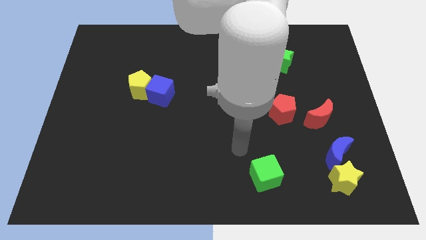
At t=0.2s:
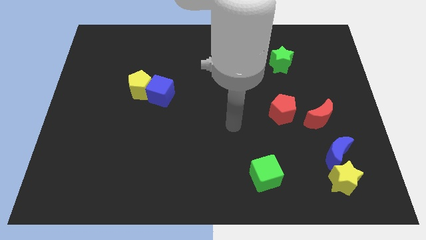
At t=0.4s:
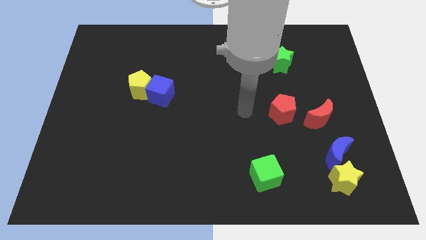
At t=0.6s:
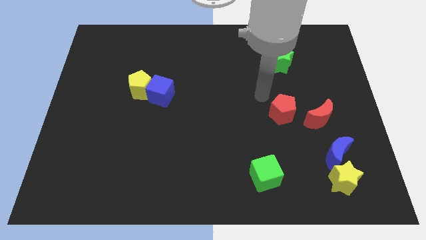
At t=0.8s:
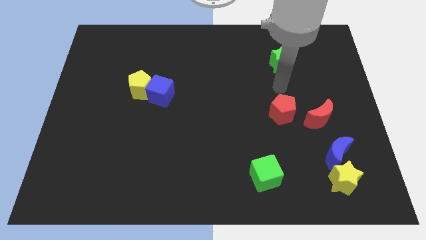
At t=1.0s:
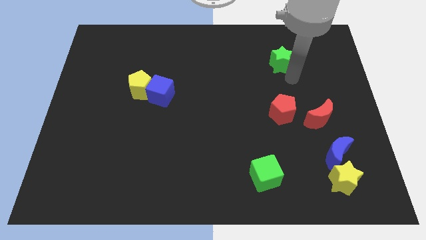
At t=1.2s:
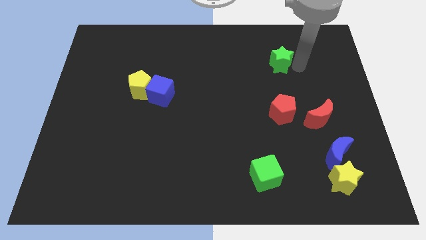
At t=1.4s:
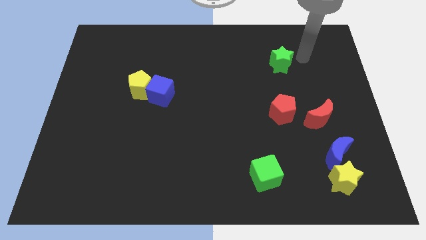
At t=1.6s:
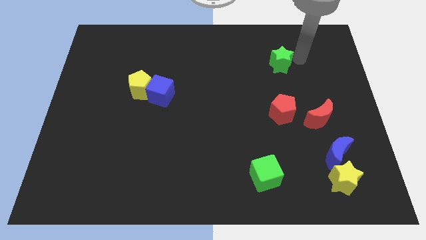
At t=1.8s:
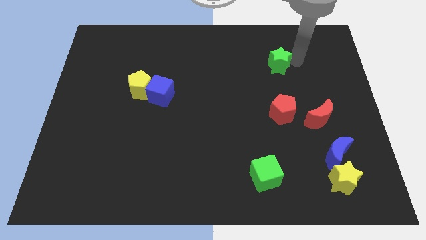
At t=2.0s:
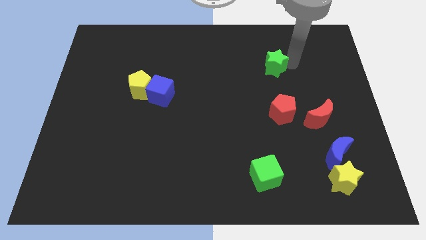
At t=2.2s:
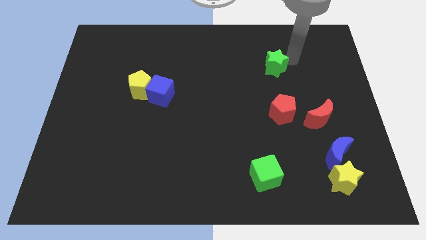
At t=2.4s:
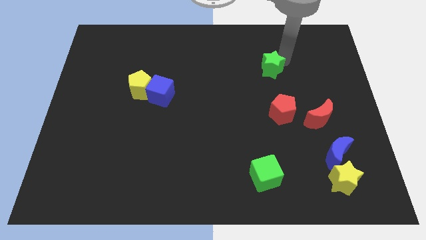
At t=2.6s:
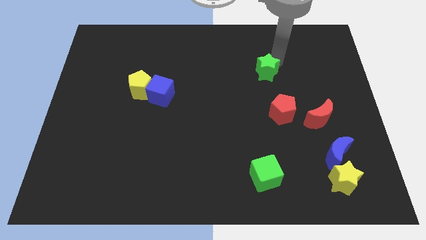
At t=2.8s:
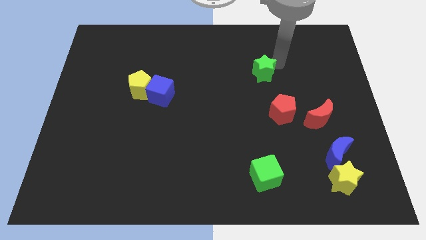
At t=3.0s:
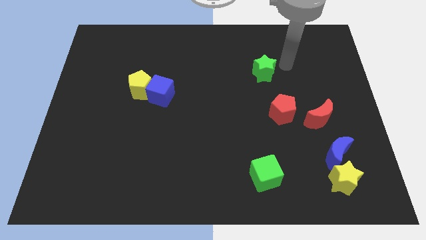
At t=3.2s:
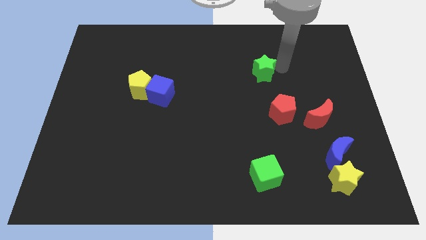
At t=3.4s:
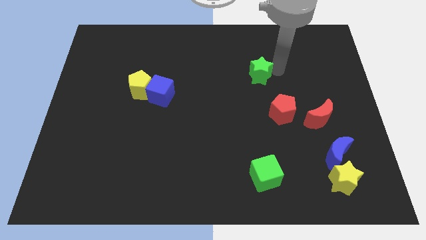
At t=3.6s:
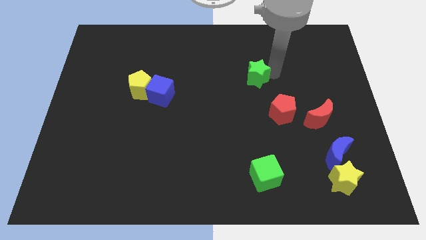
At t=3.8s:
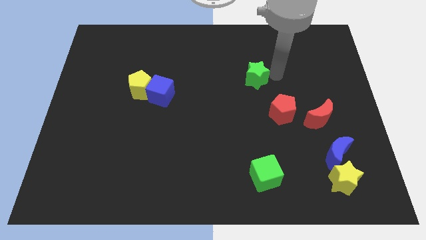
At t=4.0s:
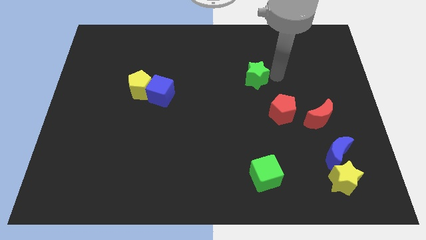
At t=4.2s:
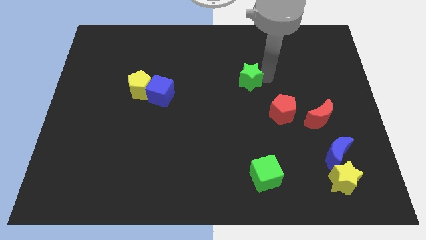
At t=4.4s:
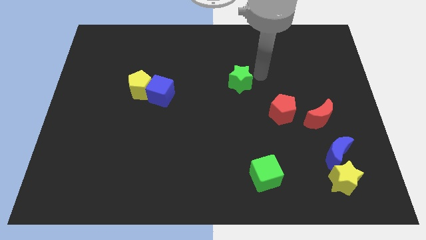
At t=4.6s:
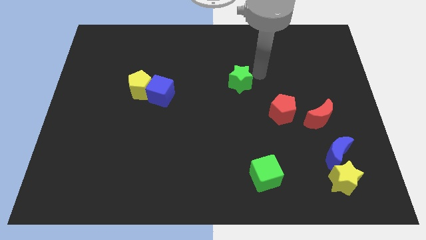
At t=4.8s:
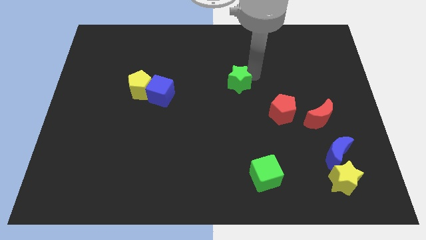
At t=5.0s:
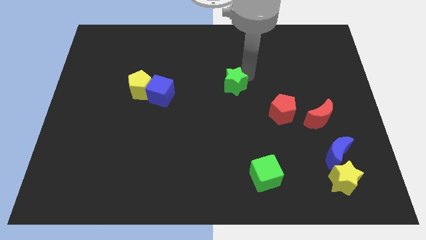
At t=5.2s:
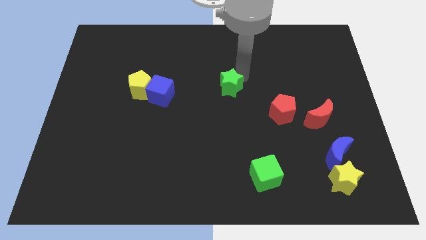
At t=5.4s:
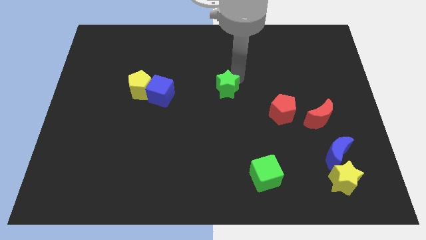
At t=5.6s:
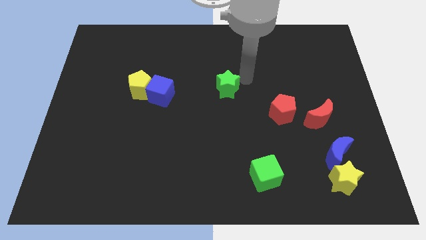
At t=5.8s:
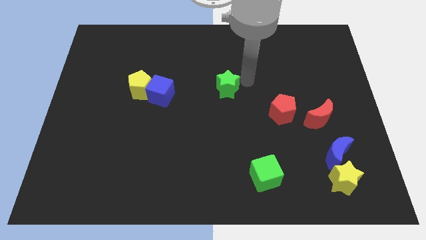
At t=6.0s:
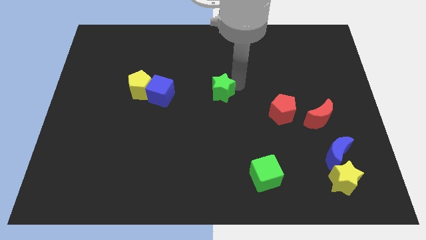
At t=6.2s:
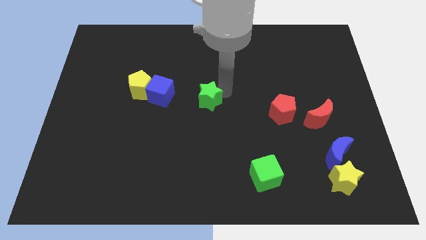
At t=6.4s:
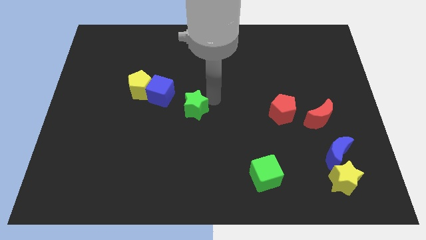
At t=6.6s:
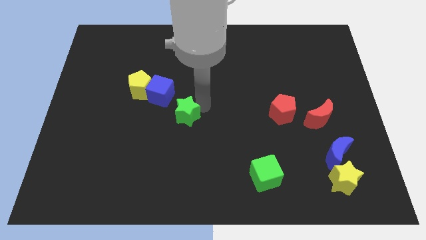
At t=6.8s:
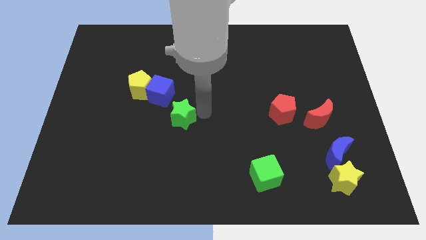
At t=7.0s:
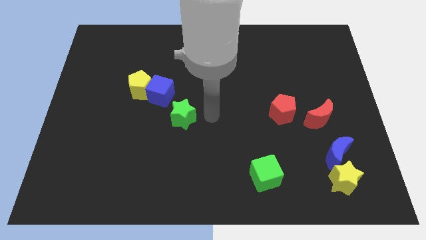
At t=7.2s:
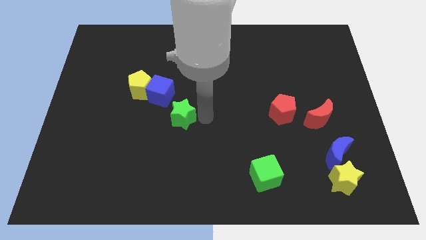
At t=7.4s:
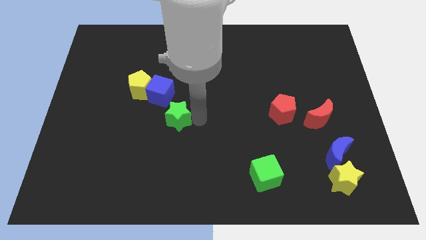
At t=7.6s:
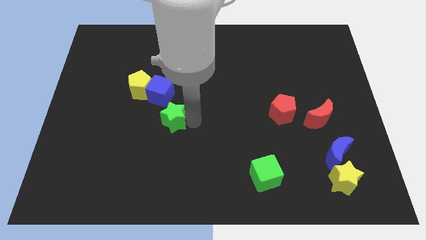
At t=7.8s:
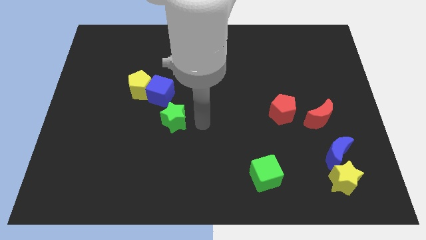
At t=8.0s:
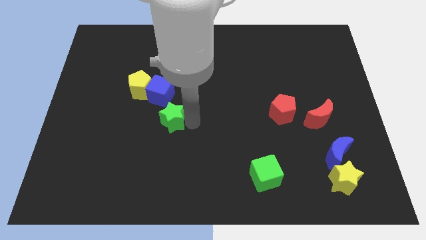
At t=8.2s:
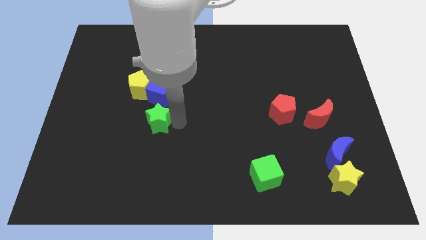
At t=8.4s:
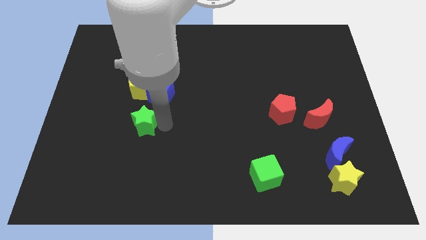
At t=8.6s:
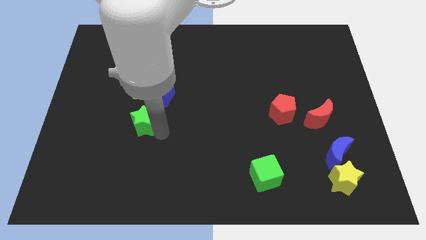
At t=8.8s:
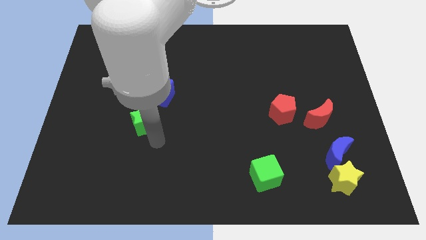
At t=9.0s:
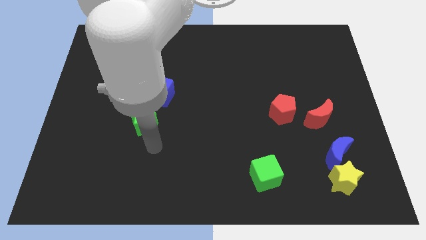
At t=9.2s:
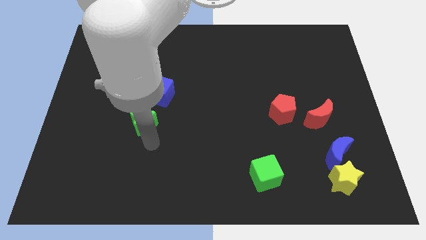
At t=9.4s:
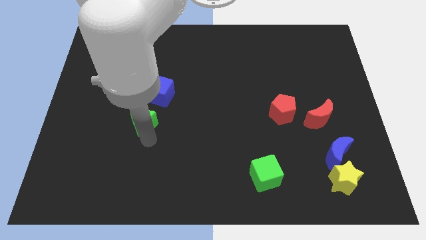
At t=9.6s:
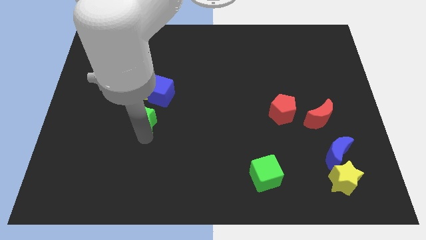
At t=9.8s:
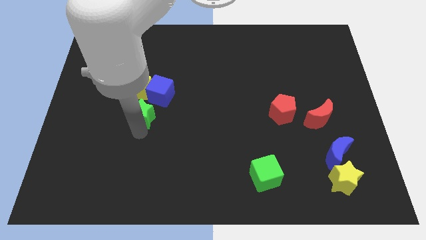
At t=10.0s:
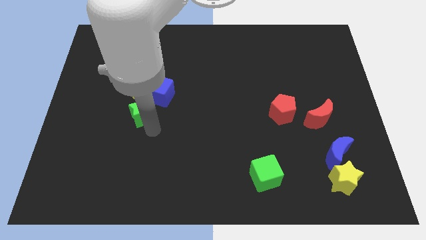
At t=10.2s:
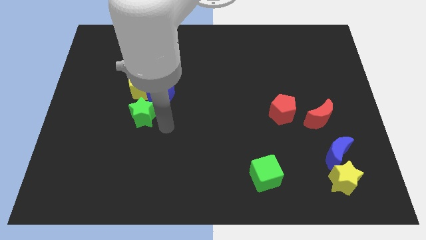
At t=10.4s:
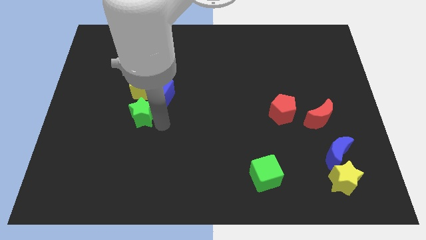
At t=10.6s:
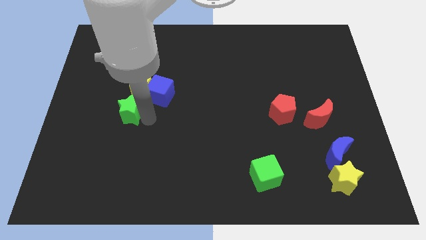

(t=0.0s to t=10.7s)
push the green star diagonally down and to the left of the yellow pentagon
